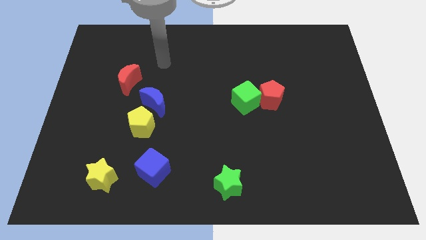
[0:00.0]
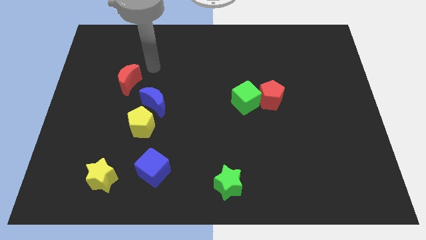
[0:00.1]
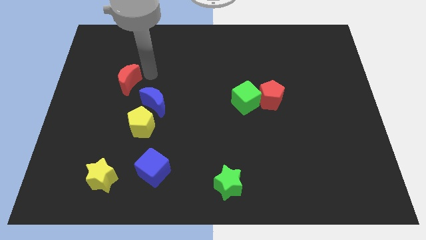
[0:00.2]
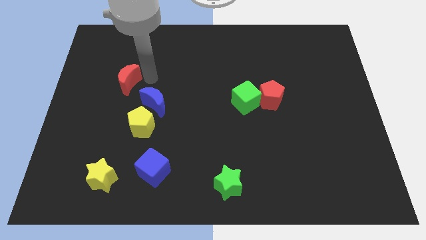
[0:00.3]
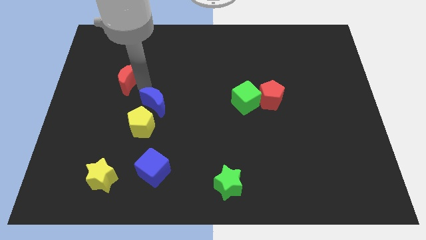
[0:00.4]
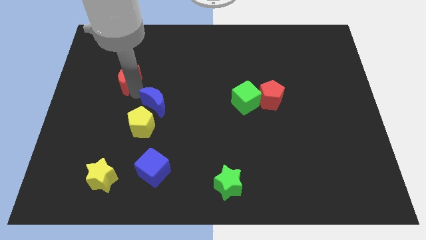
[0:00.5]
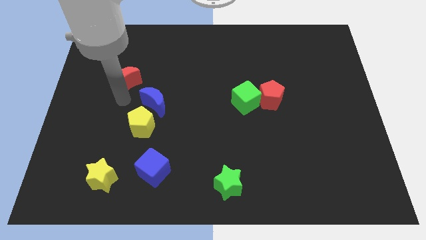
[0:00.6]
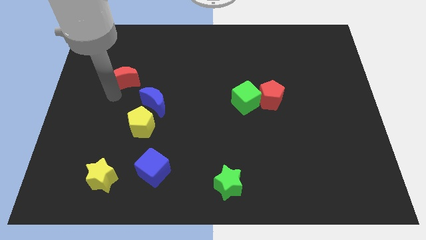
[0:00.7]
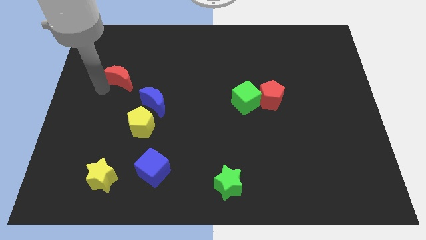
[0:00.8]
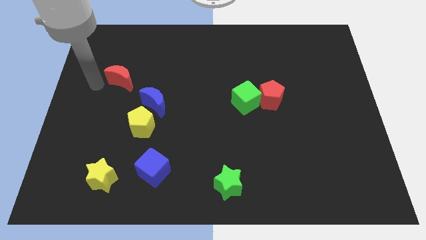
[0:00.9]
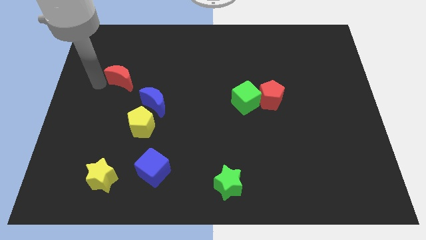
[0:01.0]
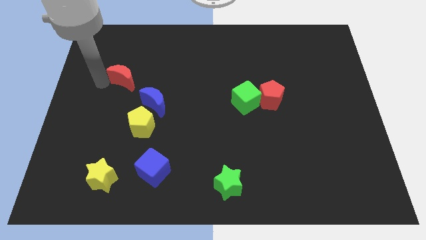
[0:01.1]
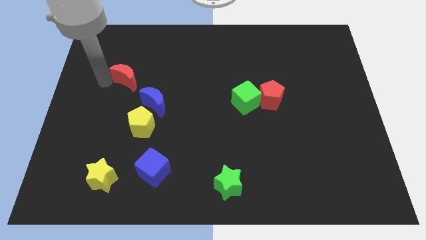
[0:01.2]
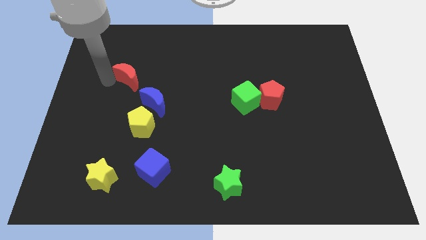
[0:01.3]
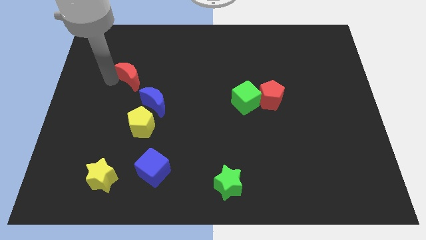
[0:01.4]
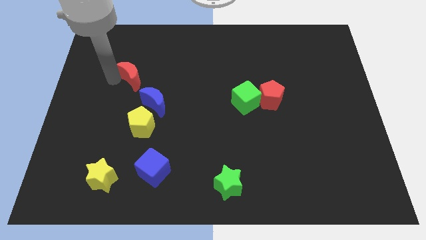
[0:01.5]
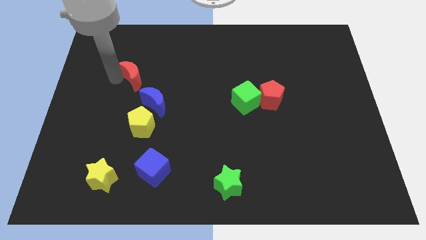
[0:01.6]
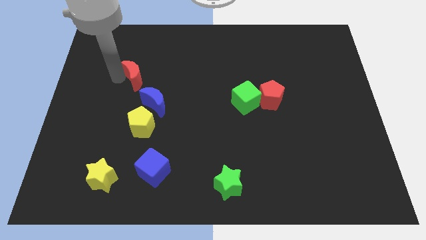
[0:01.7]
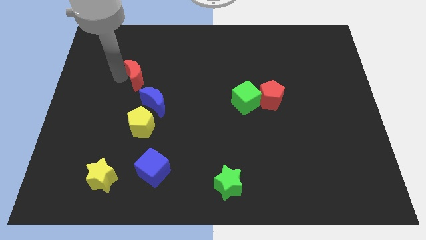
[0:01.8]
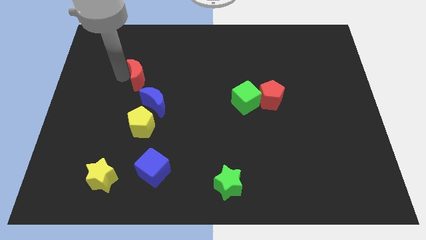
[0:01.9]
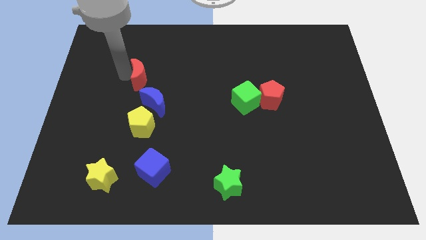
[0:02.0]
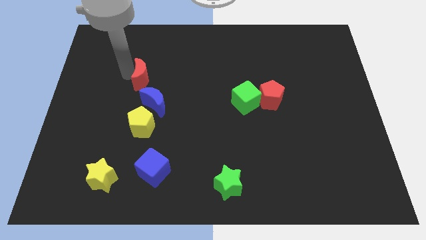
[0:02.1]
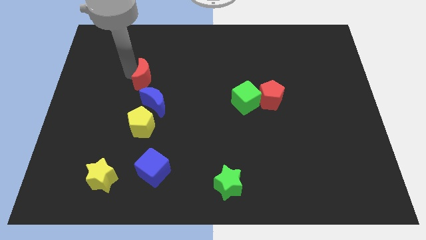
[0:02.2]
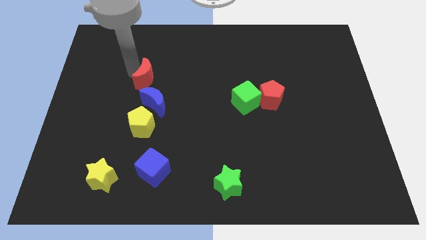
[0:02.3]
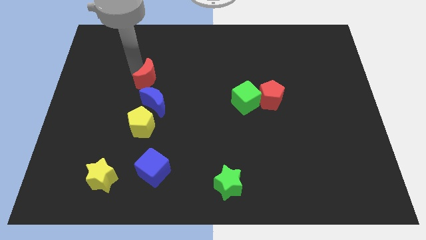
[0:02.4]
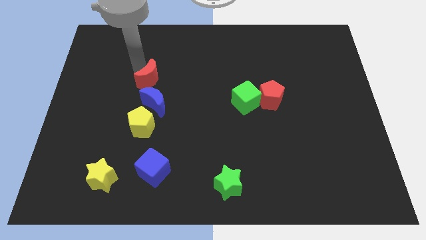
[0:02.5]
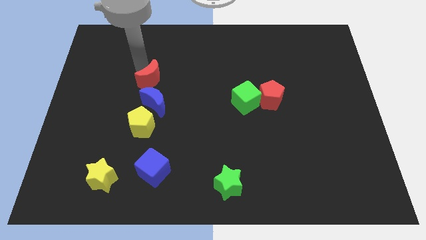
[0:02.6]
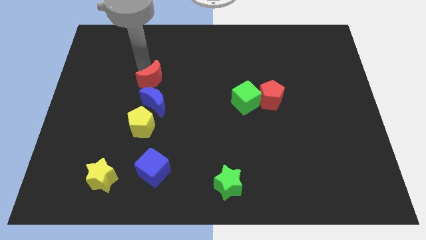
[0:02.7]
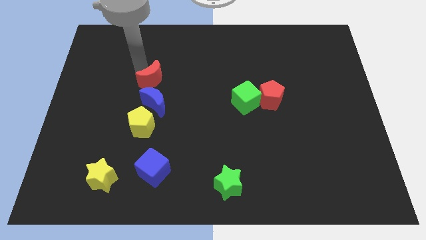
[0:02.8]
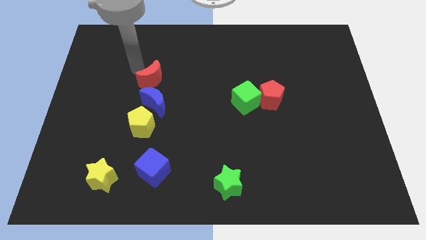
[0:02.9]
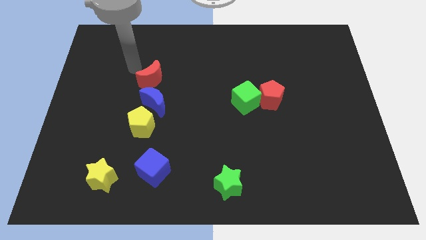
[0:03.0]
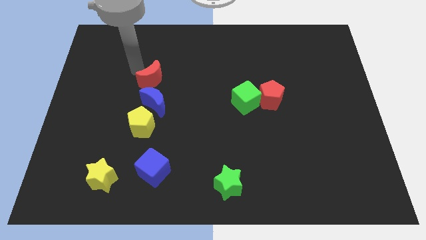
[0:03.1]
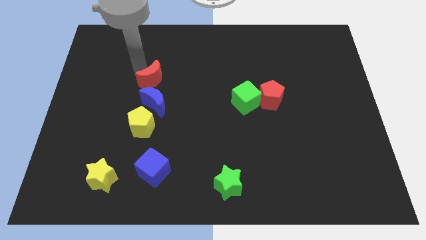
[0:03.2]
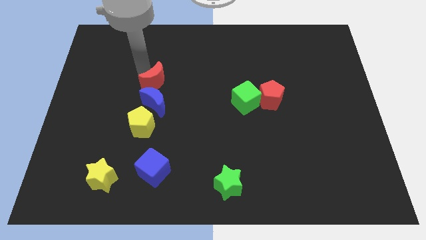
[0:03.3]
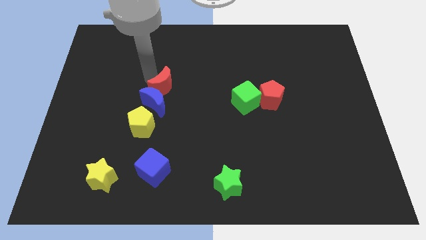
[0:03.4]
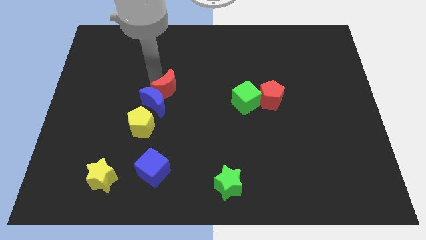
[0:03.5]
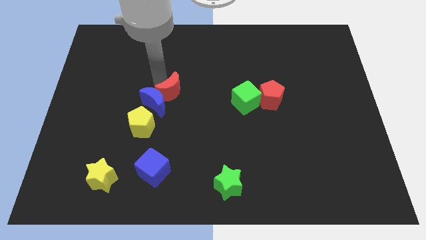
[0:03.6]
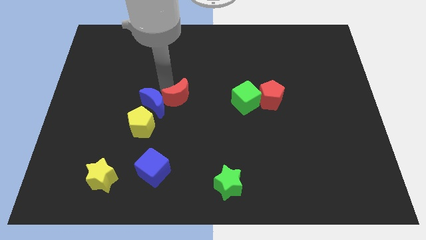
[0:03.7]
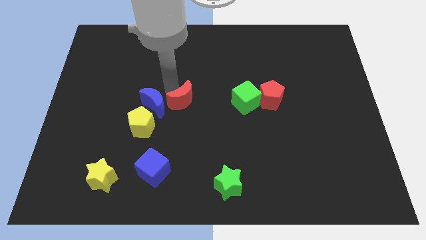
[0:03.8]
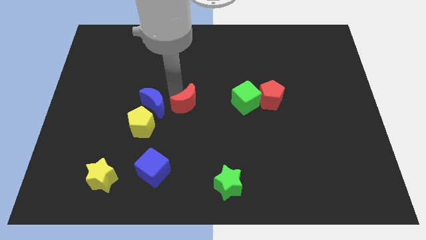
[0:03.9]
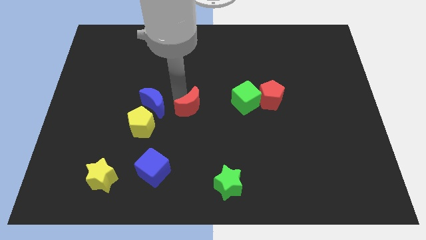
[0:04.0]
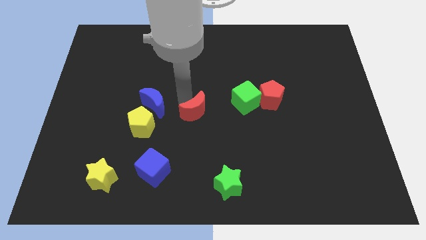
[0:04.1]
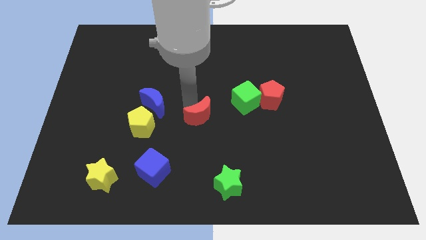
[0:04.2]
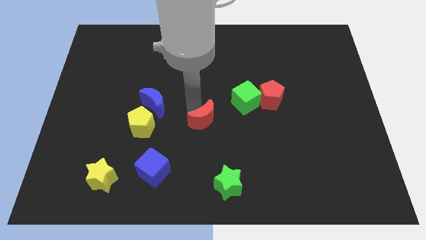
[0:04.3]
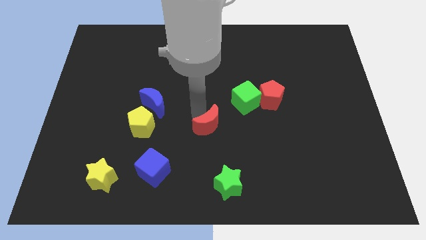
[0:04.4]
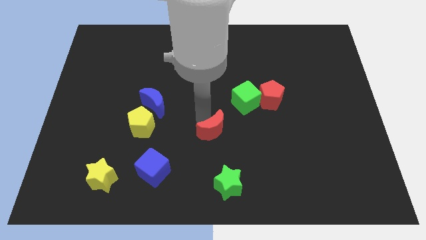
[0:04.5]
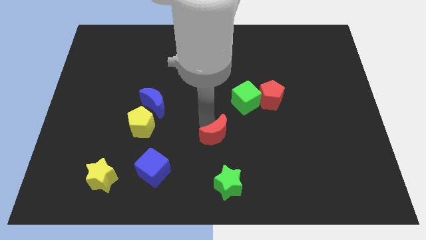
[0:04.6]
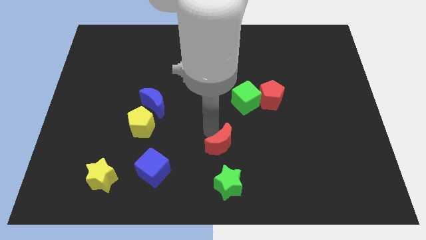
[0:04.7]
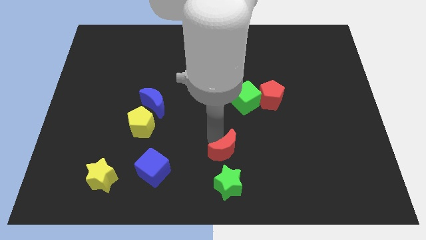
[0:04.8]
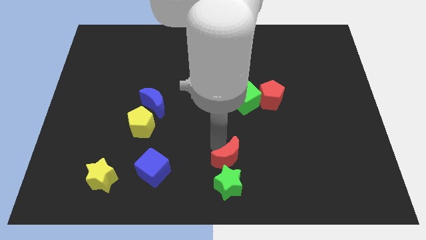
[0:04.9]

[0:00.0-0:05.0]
push the red moon diagonally up and to the right of the green star

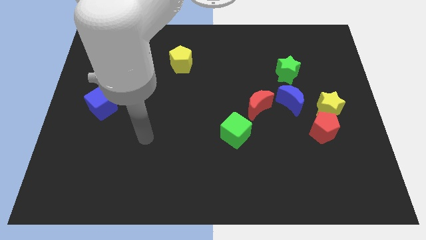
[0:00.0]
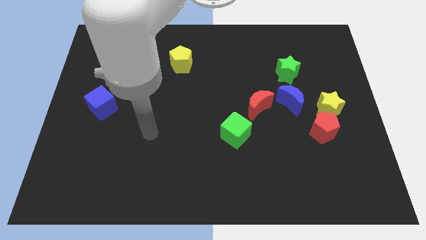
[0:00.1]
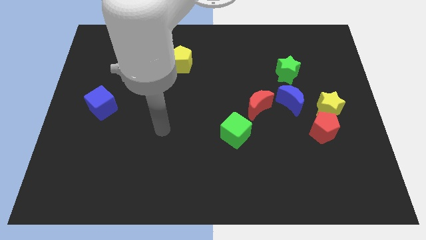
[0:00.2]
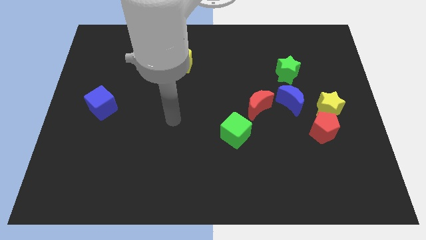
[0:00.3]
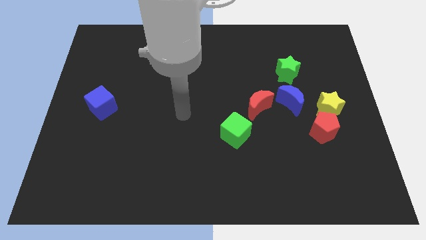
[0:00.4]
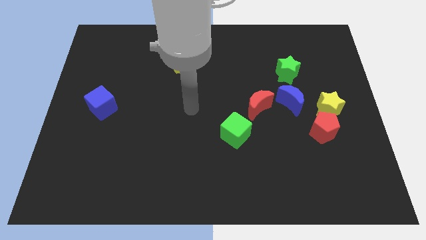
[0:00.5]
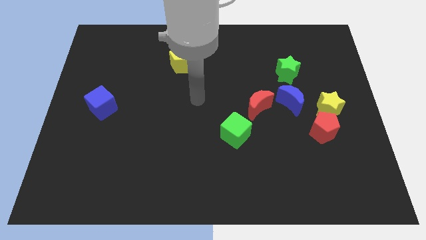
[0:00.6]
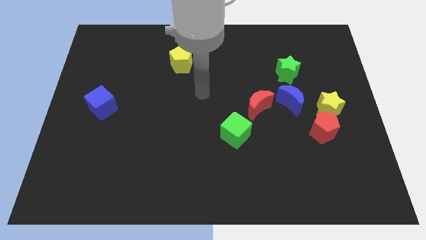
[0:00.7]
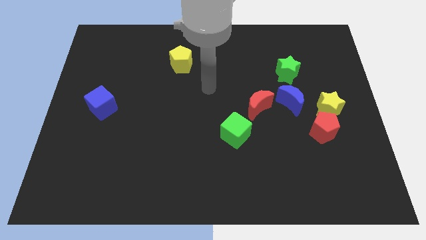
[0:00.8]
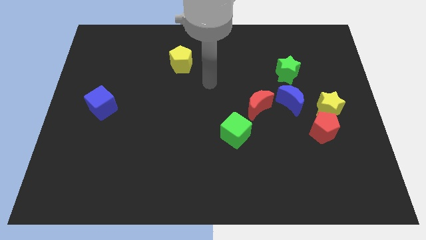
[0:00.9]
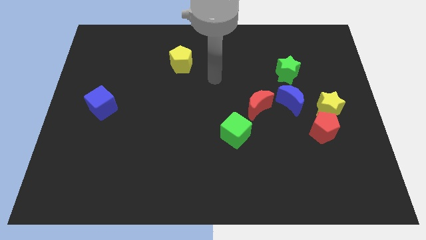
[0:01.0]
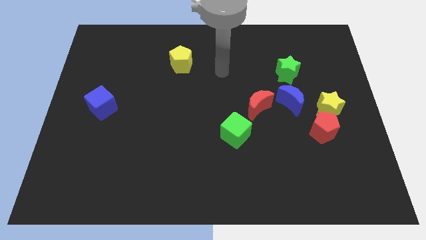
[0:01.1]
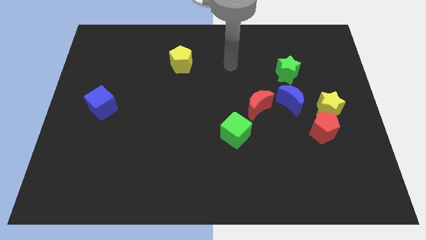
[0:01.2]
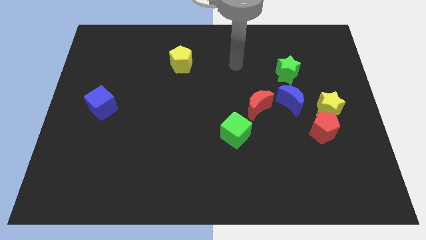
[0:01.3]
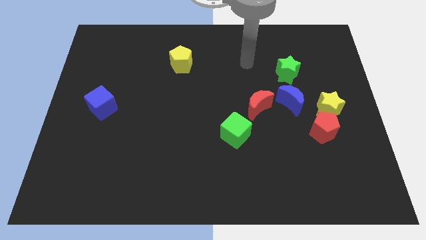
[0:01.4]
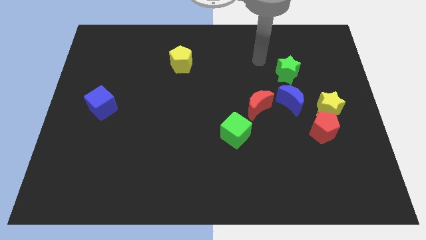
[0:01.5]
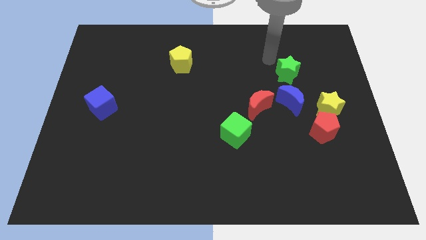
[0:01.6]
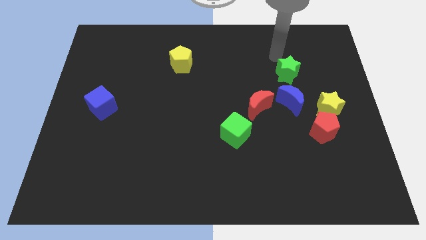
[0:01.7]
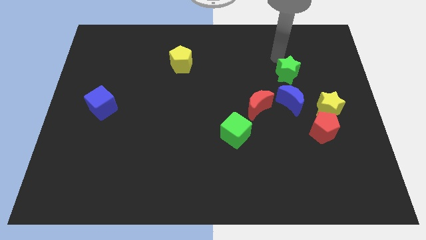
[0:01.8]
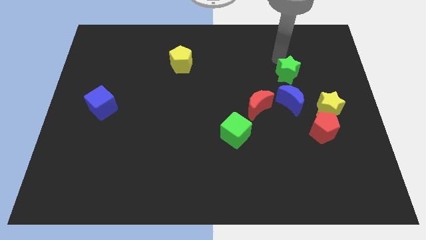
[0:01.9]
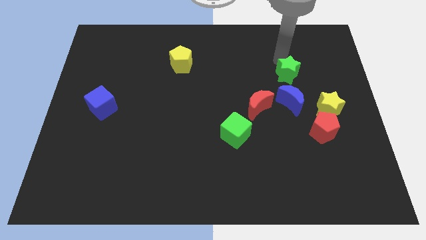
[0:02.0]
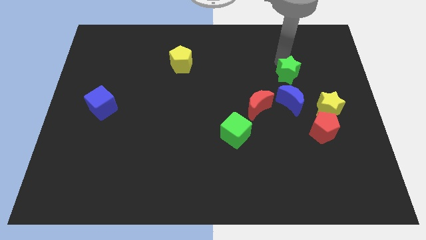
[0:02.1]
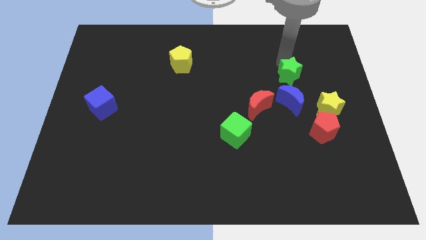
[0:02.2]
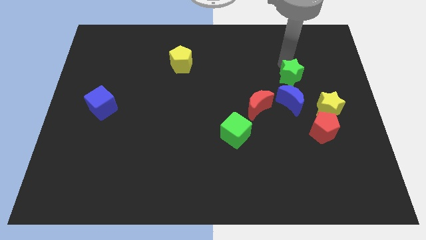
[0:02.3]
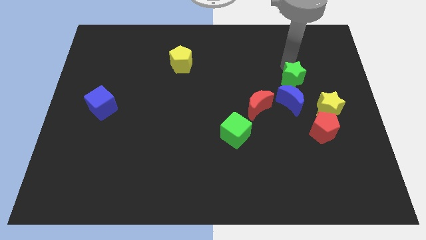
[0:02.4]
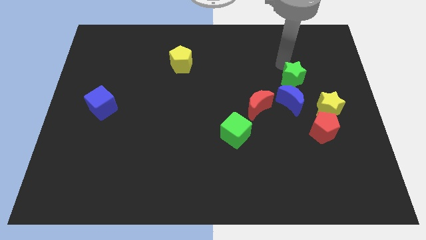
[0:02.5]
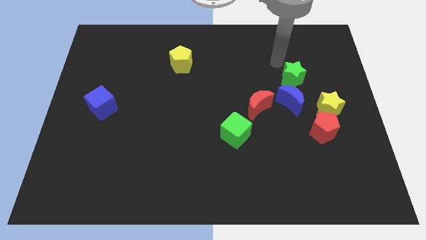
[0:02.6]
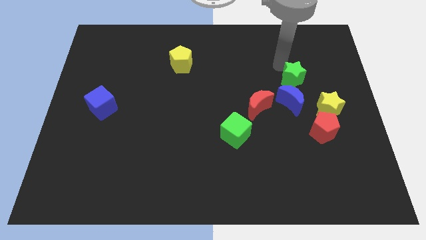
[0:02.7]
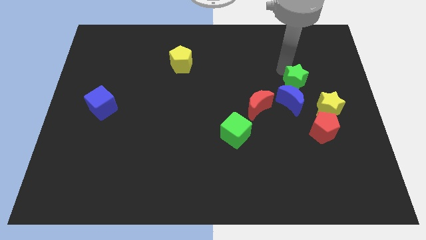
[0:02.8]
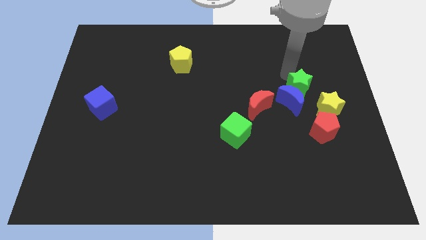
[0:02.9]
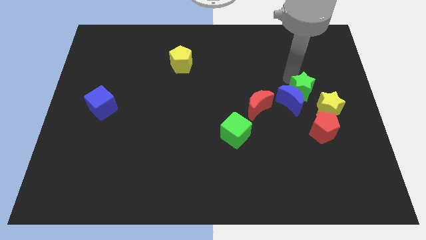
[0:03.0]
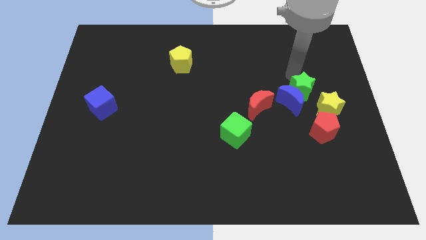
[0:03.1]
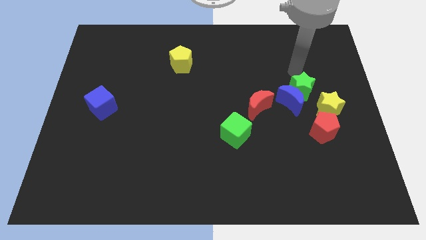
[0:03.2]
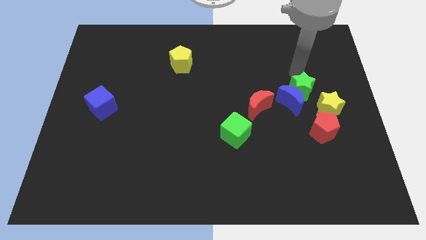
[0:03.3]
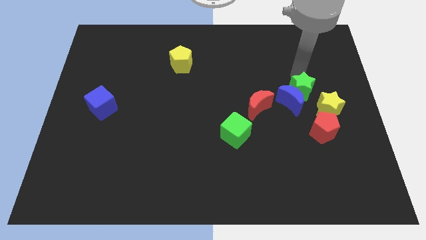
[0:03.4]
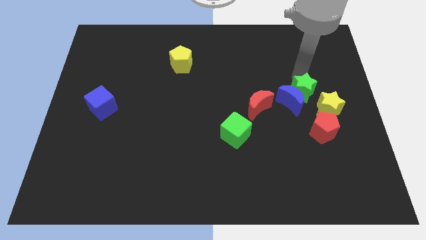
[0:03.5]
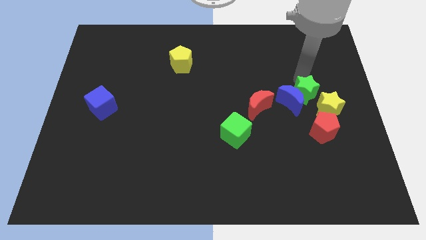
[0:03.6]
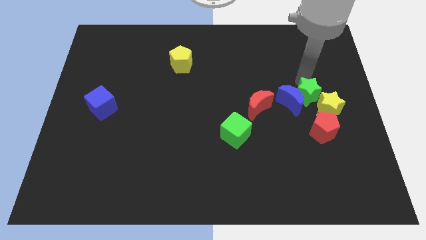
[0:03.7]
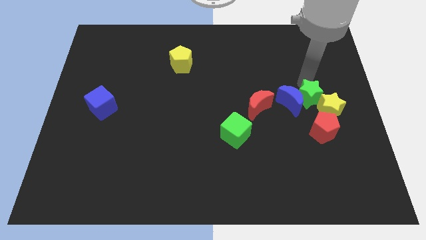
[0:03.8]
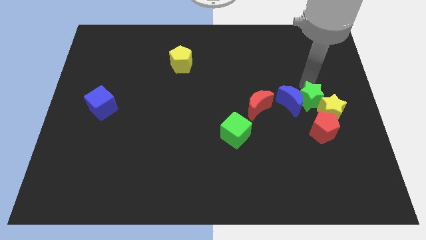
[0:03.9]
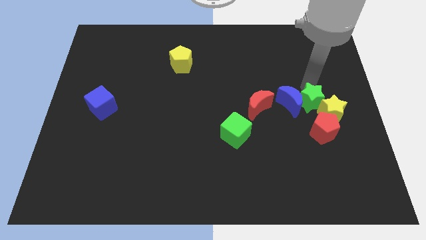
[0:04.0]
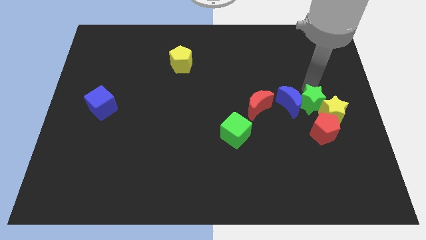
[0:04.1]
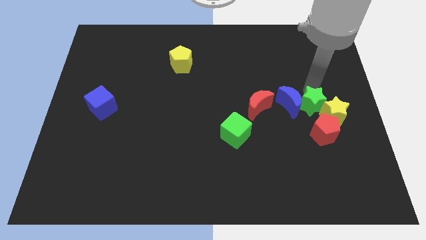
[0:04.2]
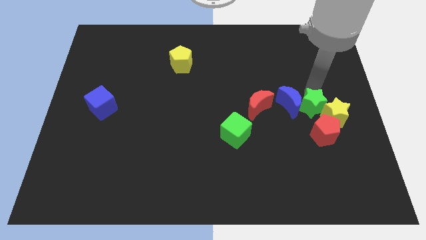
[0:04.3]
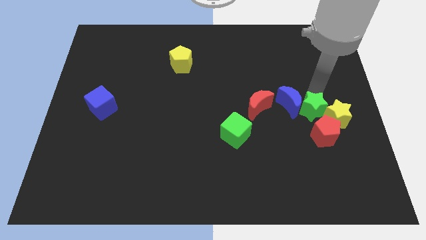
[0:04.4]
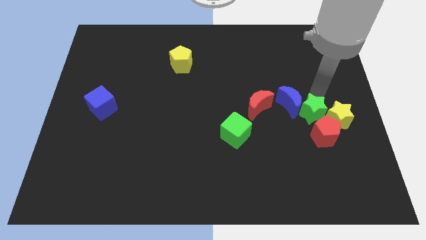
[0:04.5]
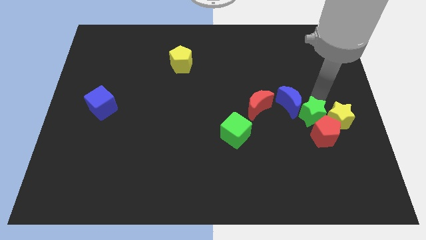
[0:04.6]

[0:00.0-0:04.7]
slide the green star below the blue moon
